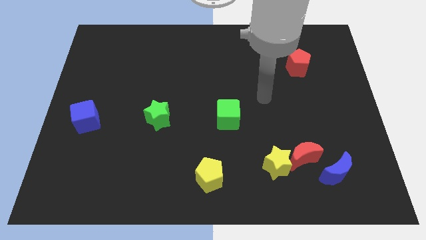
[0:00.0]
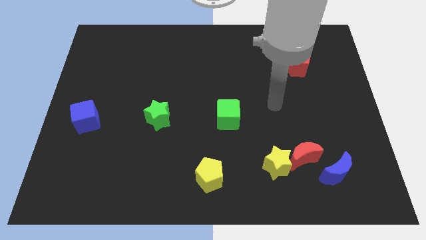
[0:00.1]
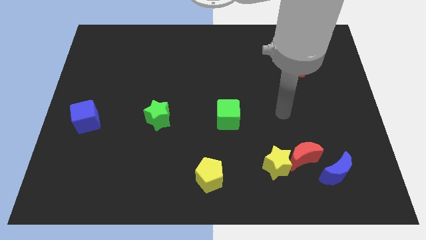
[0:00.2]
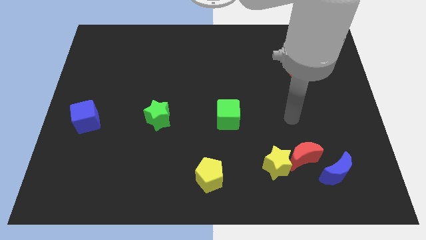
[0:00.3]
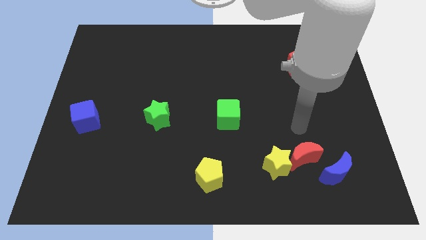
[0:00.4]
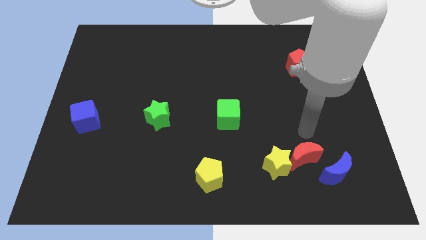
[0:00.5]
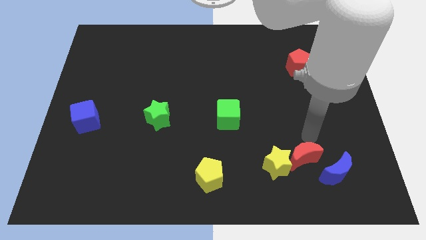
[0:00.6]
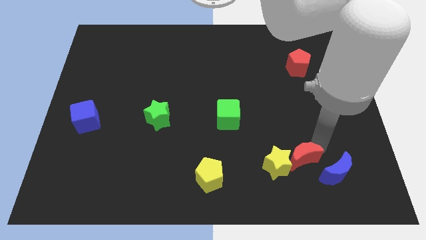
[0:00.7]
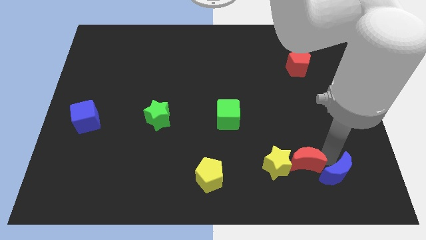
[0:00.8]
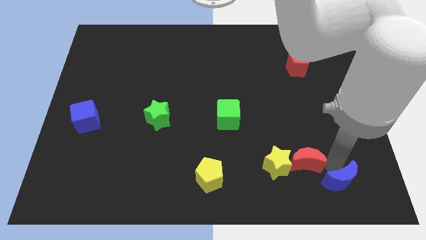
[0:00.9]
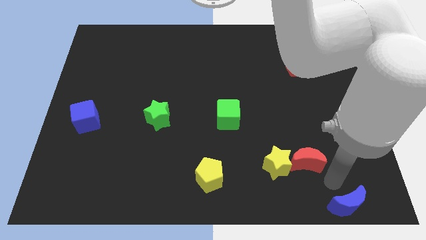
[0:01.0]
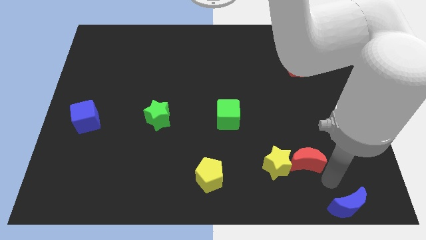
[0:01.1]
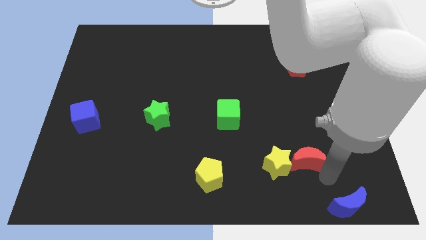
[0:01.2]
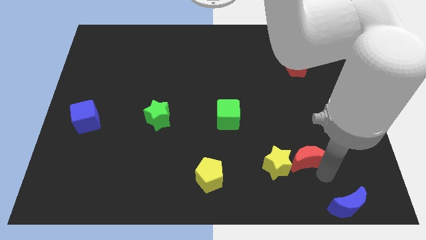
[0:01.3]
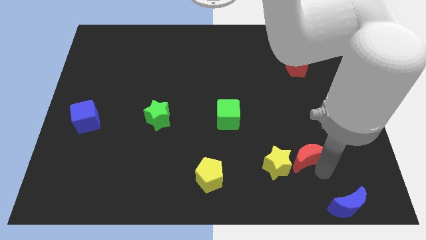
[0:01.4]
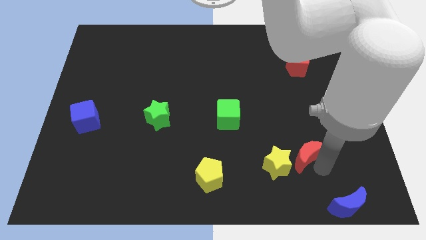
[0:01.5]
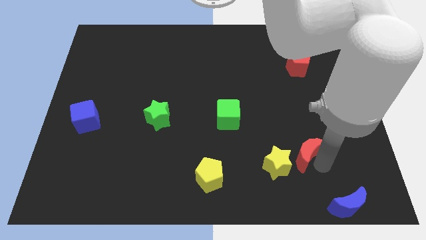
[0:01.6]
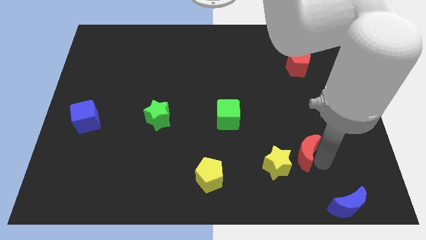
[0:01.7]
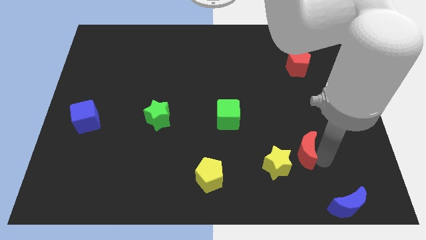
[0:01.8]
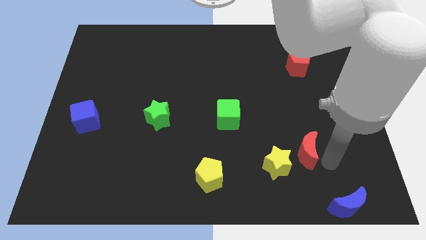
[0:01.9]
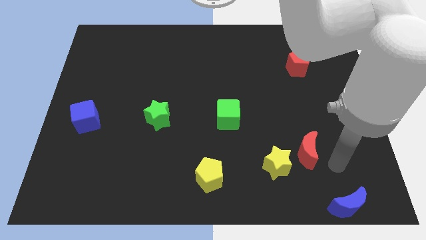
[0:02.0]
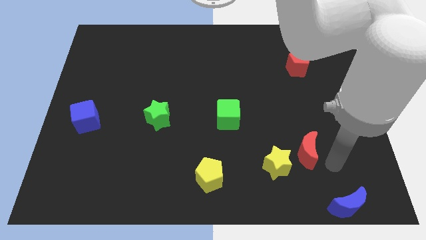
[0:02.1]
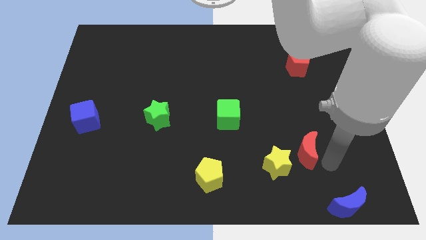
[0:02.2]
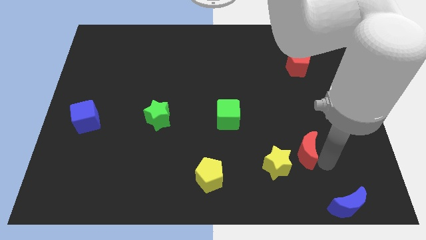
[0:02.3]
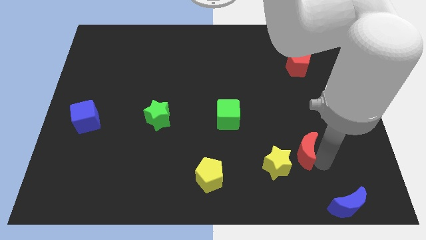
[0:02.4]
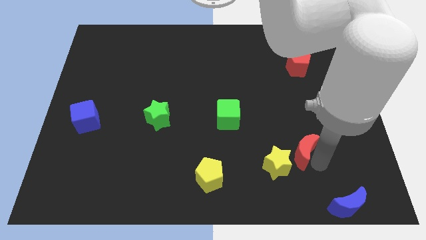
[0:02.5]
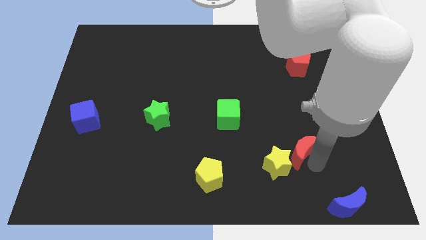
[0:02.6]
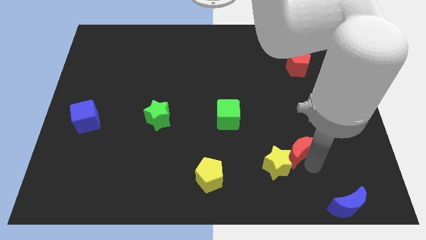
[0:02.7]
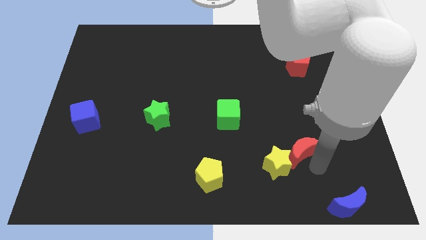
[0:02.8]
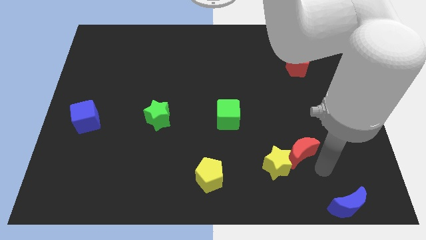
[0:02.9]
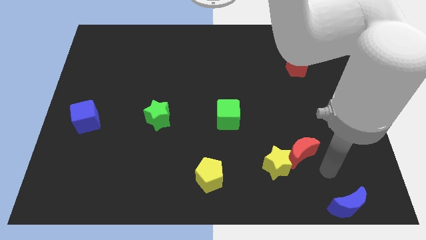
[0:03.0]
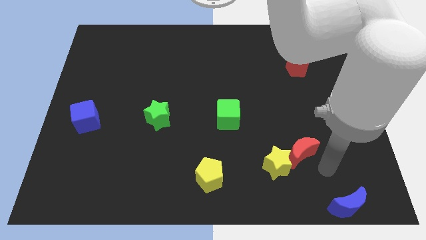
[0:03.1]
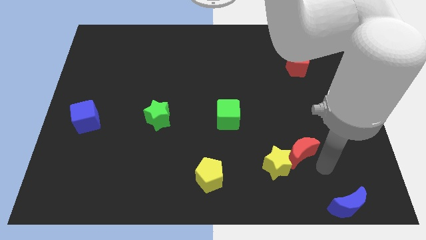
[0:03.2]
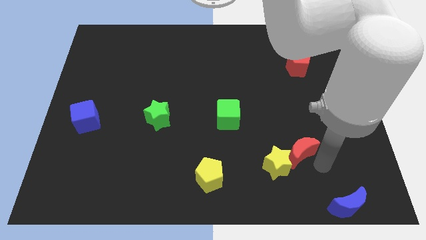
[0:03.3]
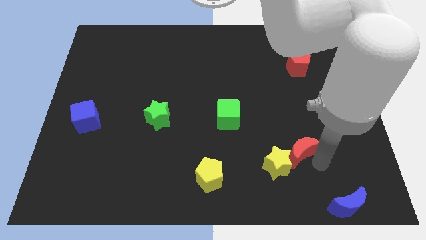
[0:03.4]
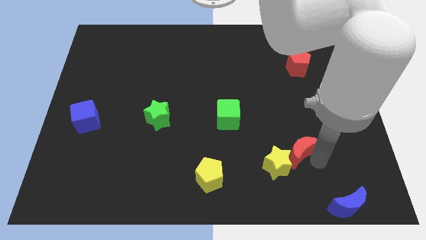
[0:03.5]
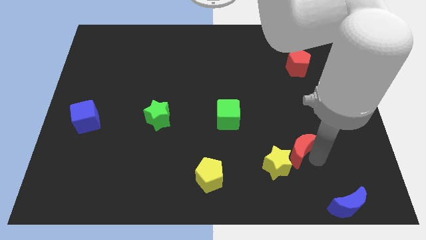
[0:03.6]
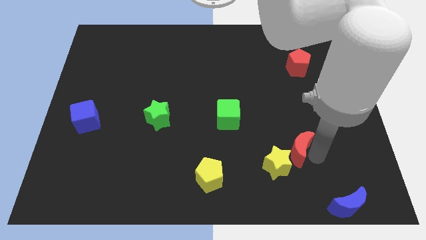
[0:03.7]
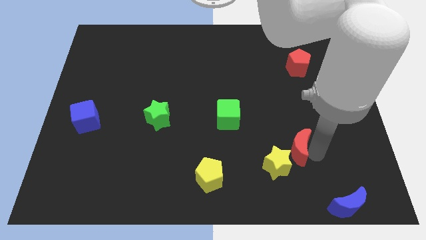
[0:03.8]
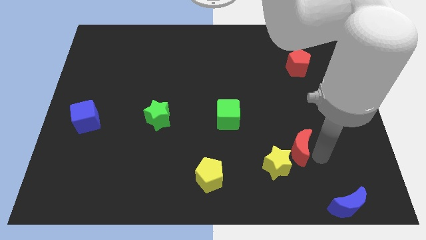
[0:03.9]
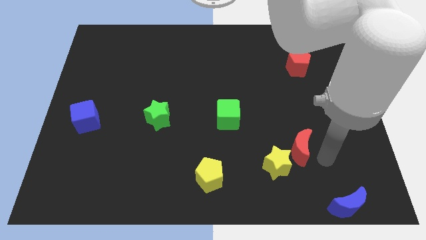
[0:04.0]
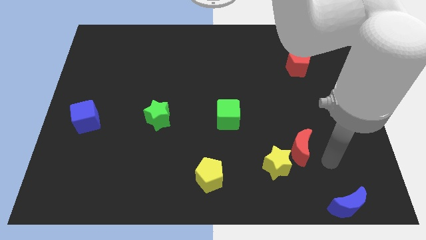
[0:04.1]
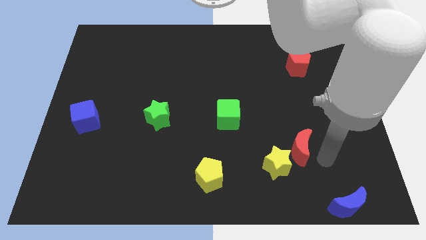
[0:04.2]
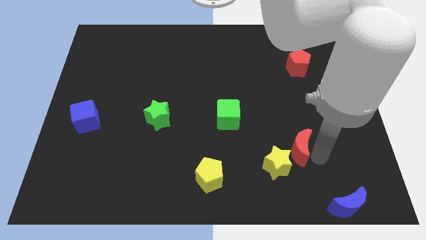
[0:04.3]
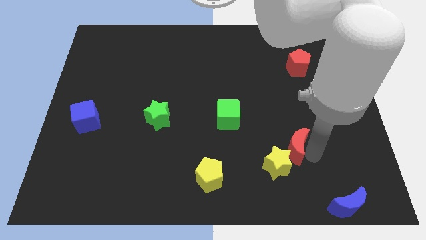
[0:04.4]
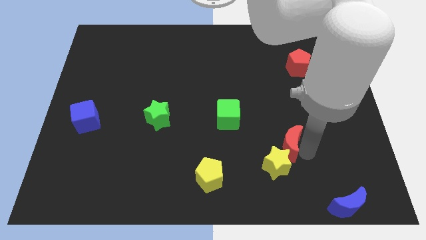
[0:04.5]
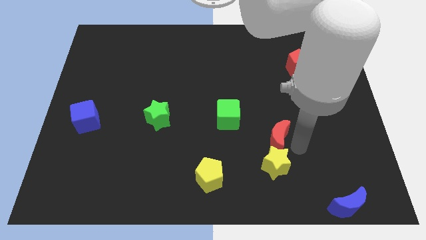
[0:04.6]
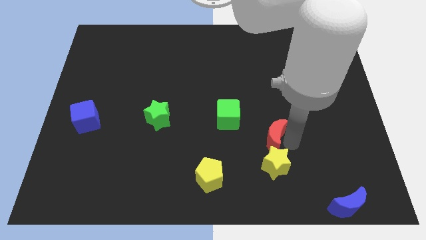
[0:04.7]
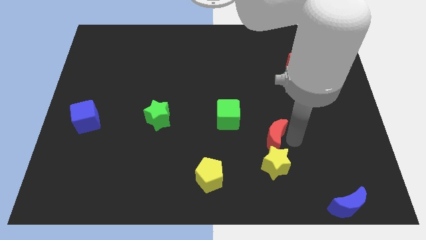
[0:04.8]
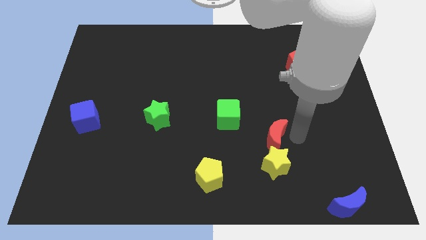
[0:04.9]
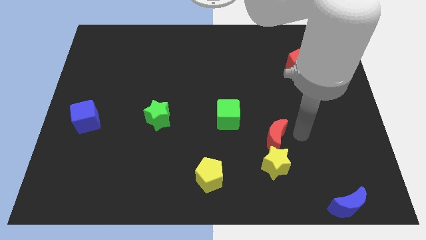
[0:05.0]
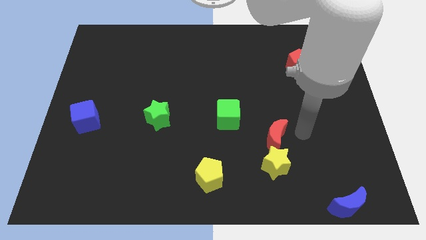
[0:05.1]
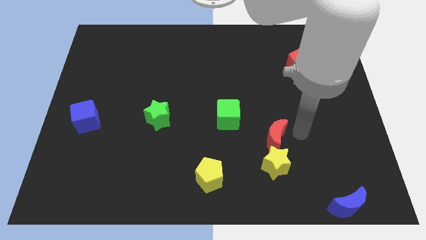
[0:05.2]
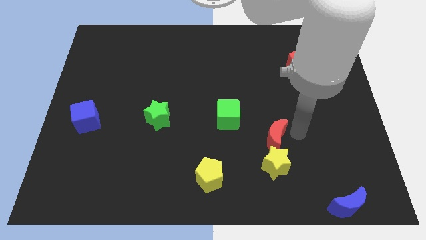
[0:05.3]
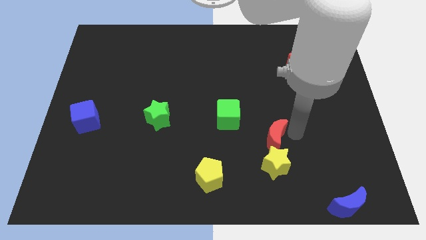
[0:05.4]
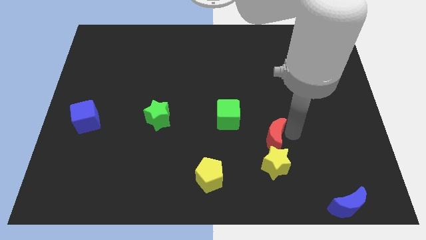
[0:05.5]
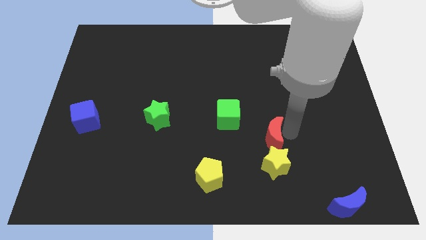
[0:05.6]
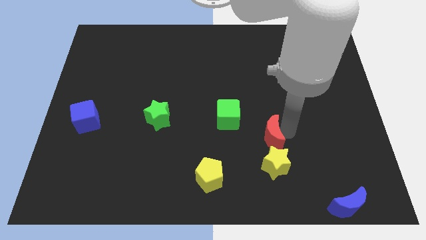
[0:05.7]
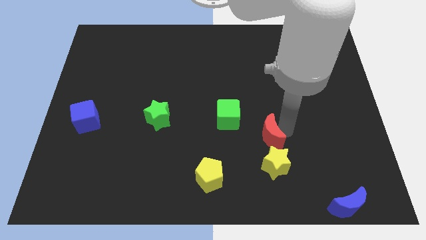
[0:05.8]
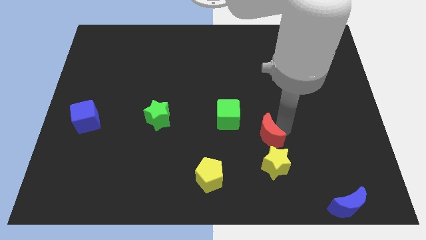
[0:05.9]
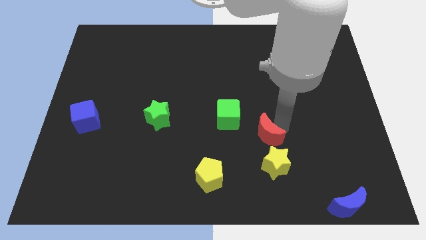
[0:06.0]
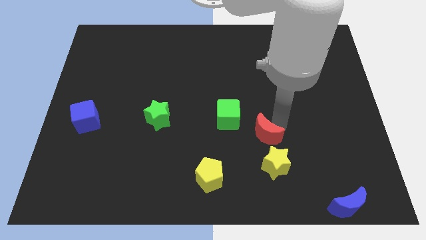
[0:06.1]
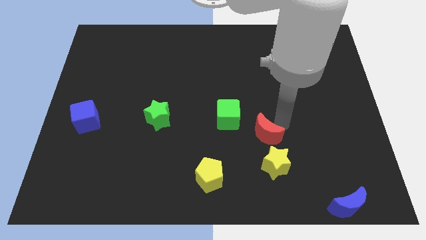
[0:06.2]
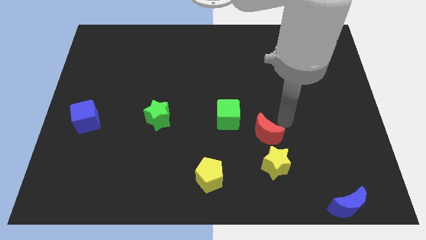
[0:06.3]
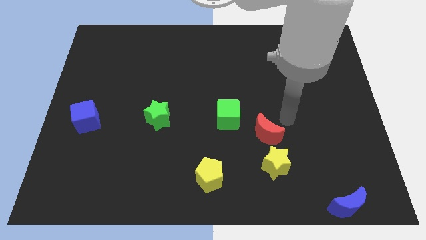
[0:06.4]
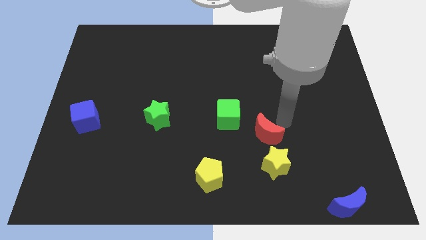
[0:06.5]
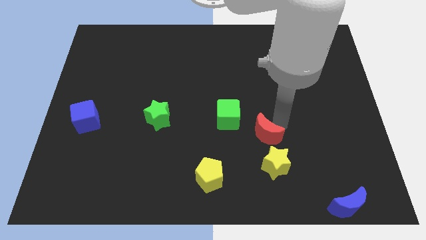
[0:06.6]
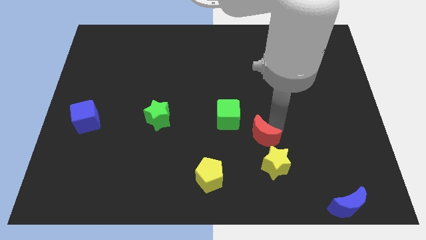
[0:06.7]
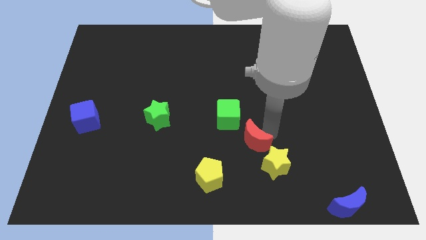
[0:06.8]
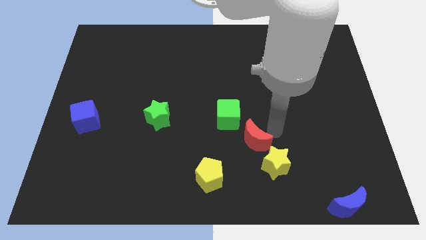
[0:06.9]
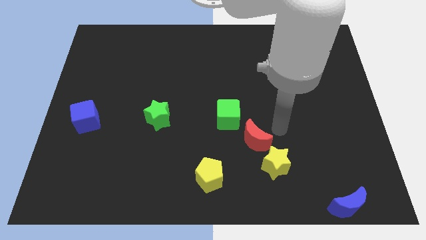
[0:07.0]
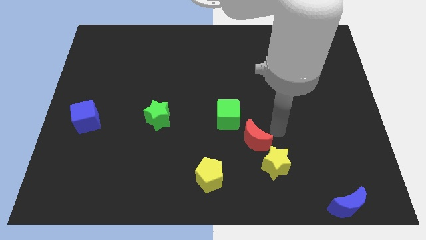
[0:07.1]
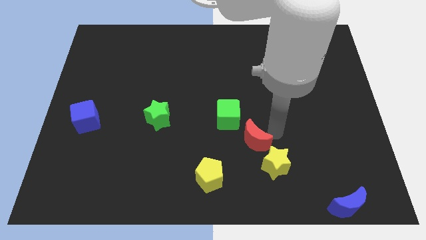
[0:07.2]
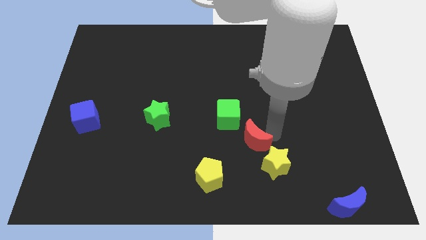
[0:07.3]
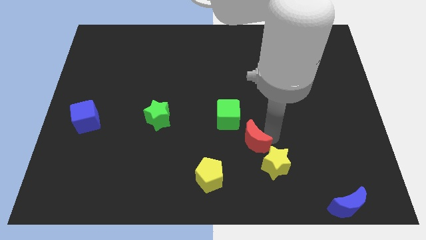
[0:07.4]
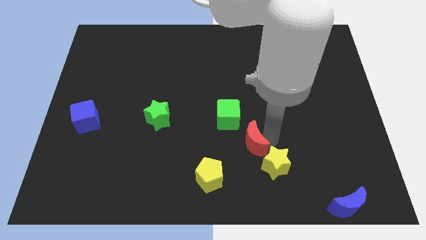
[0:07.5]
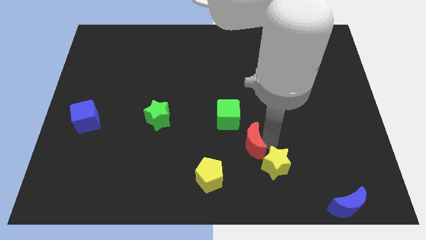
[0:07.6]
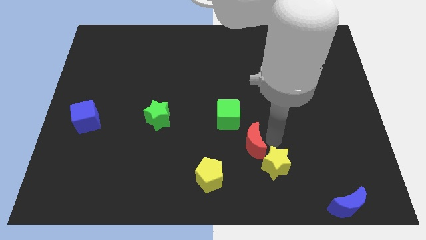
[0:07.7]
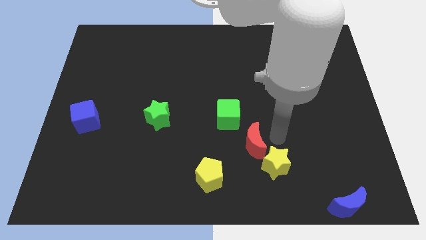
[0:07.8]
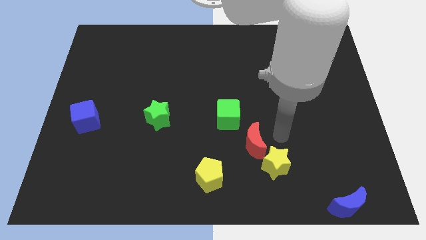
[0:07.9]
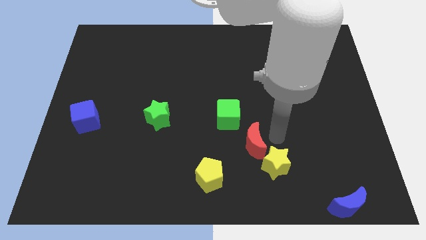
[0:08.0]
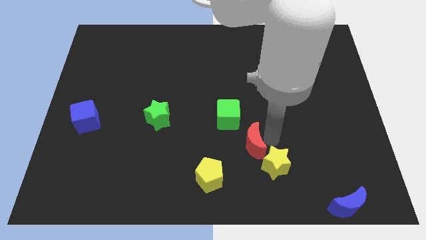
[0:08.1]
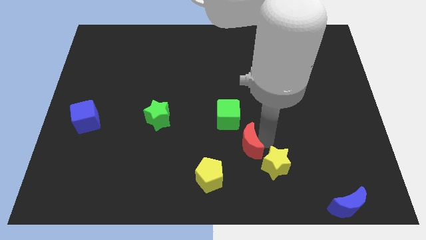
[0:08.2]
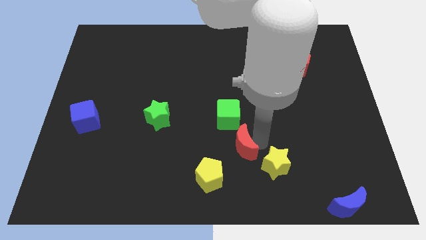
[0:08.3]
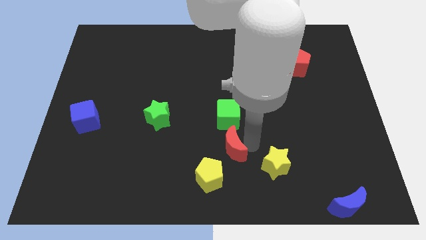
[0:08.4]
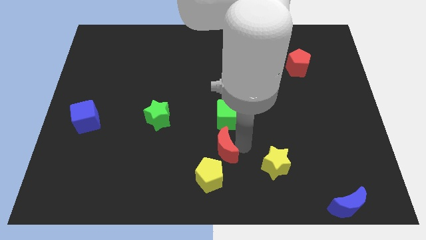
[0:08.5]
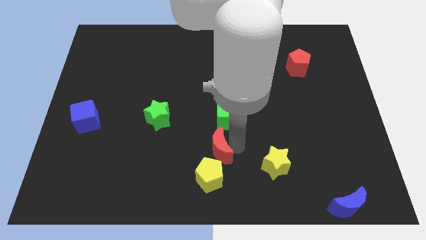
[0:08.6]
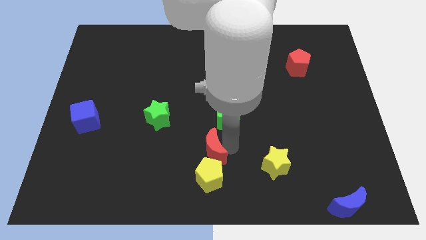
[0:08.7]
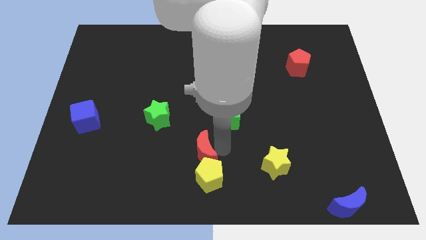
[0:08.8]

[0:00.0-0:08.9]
push the red moon to the left
